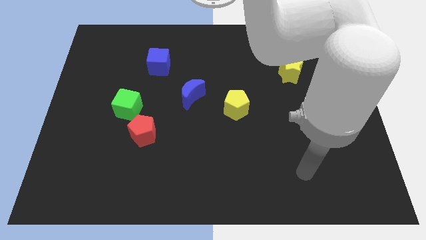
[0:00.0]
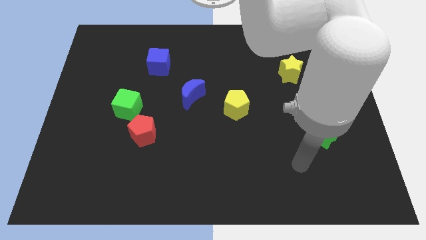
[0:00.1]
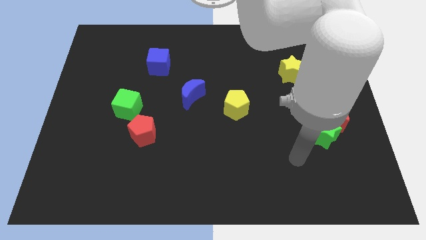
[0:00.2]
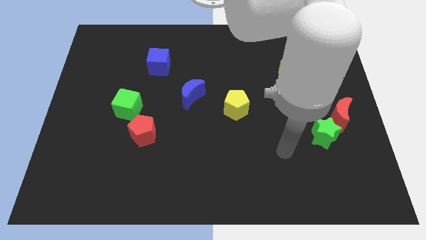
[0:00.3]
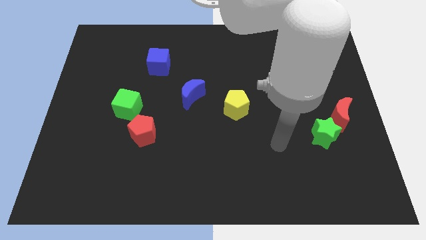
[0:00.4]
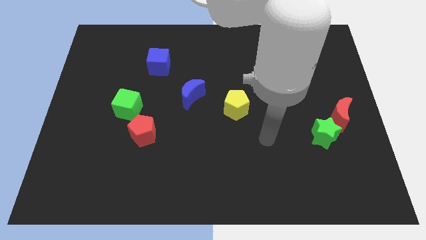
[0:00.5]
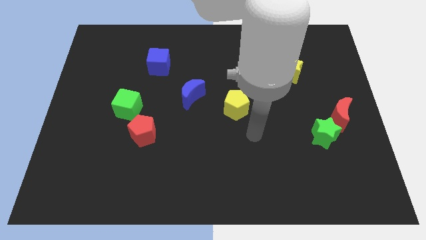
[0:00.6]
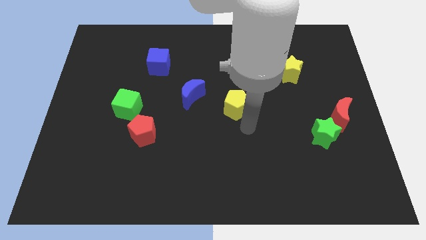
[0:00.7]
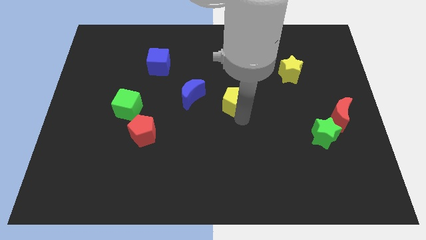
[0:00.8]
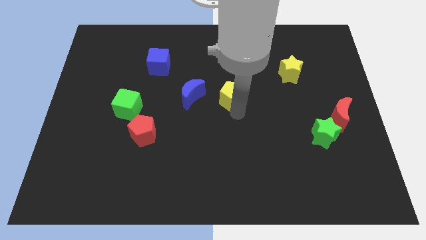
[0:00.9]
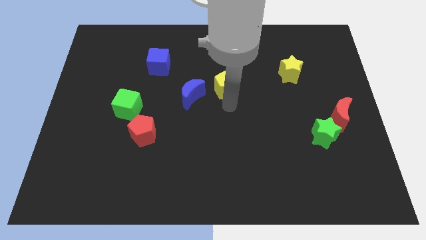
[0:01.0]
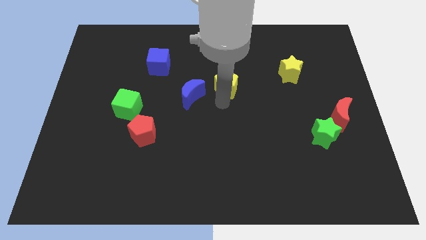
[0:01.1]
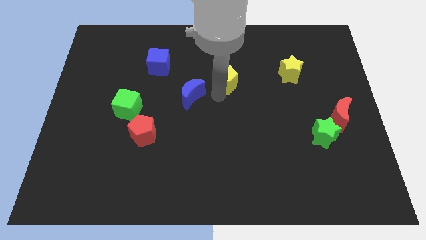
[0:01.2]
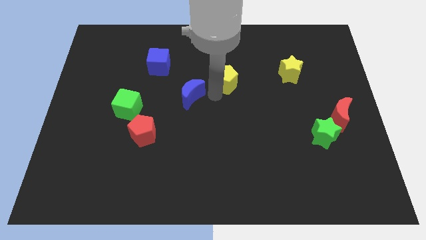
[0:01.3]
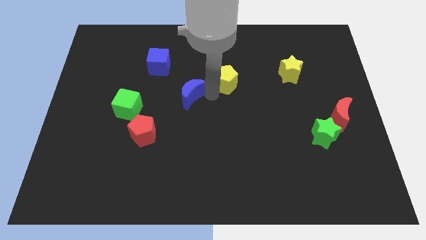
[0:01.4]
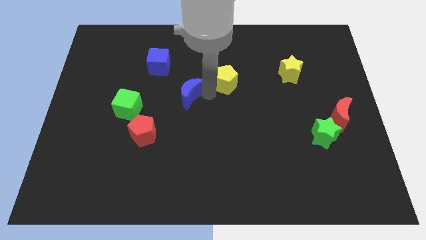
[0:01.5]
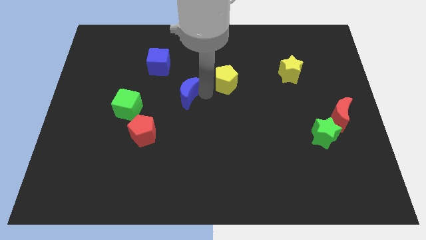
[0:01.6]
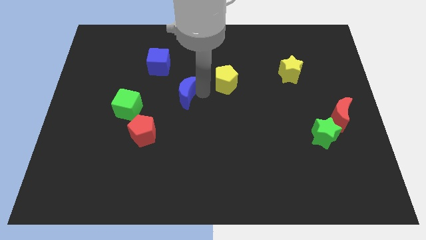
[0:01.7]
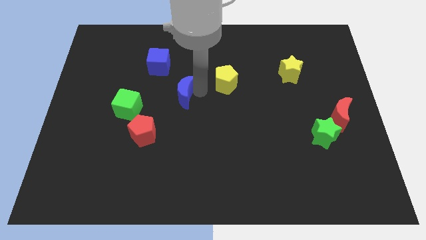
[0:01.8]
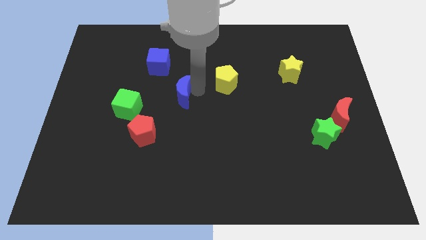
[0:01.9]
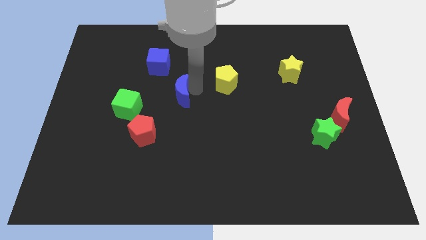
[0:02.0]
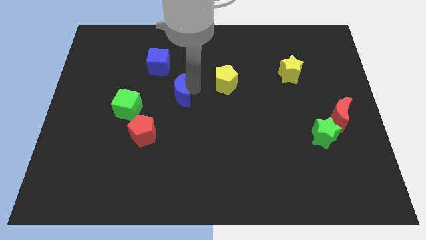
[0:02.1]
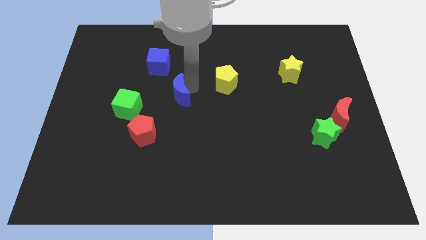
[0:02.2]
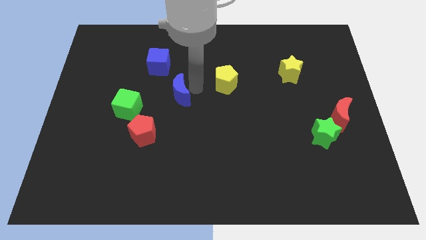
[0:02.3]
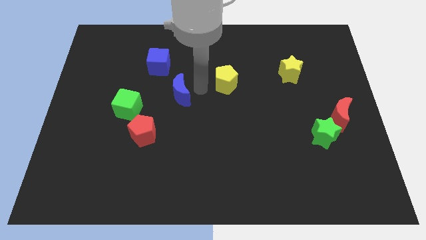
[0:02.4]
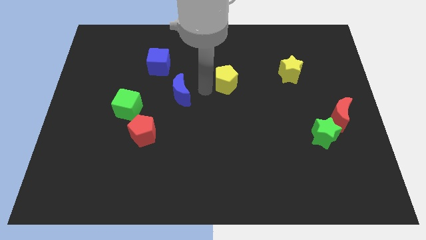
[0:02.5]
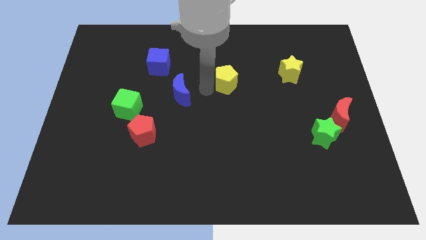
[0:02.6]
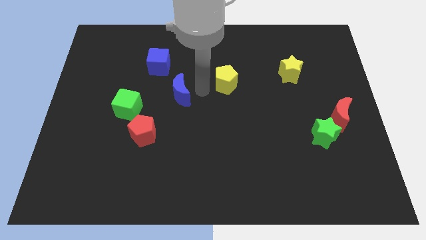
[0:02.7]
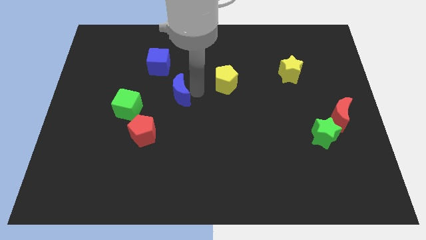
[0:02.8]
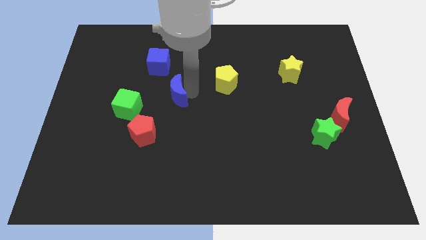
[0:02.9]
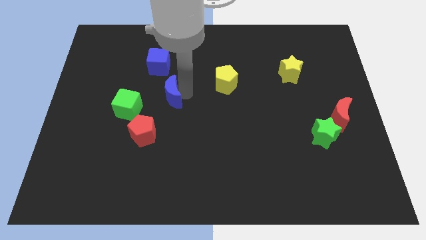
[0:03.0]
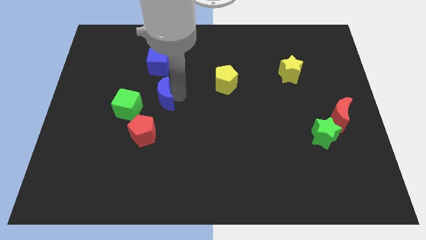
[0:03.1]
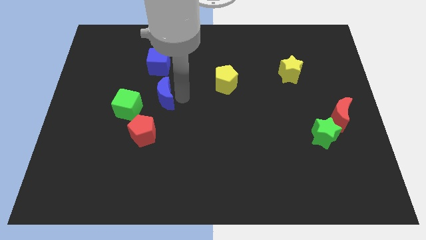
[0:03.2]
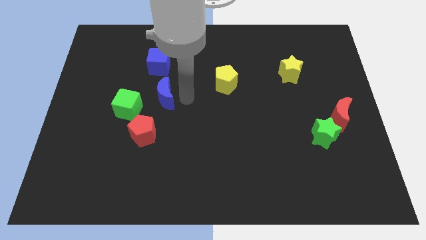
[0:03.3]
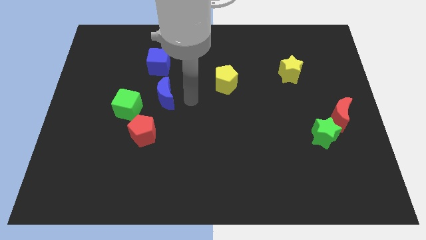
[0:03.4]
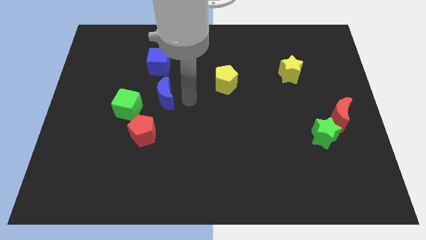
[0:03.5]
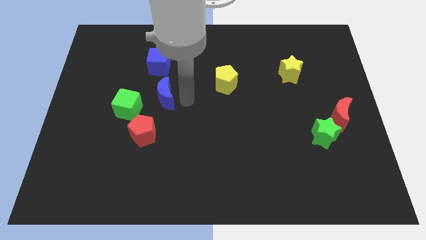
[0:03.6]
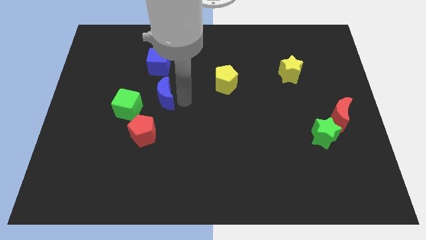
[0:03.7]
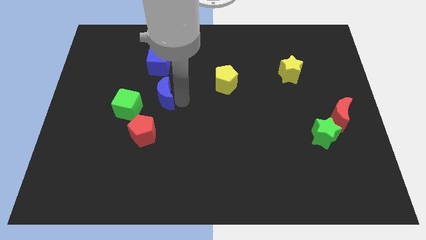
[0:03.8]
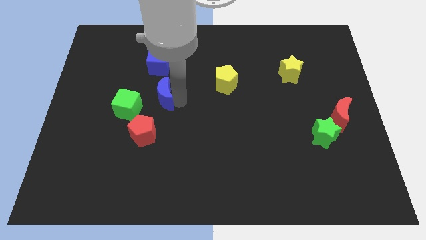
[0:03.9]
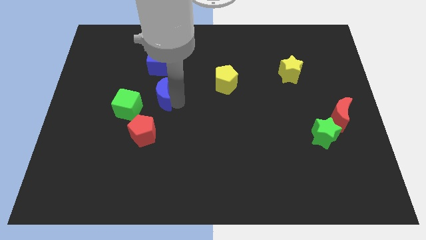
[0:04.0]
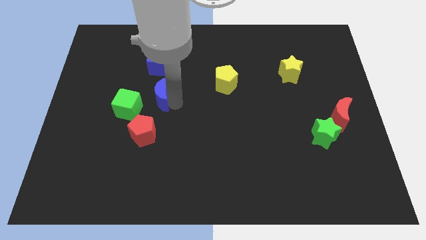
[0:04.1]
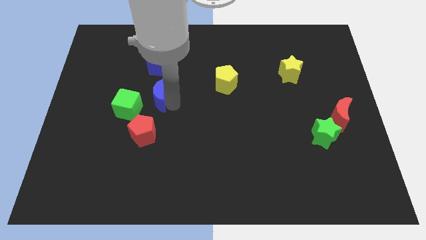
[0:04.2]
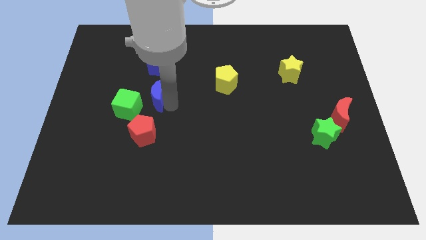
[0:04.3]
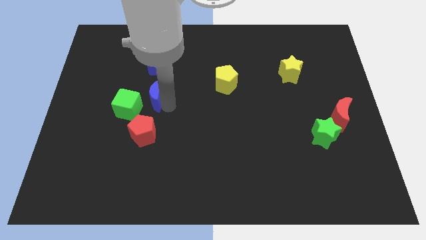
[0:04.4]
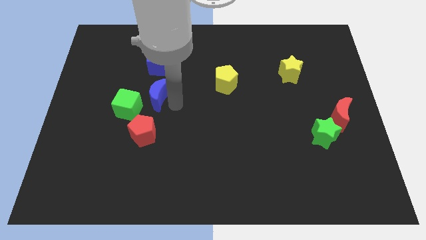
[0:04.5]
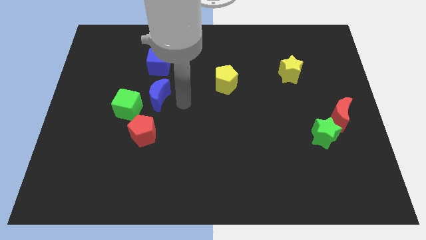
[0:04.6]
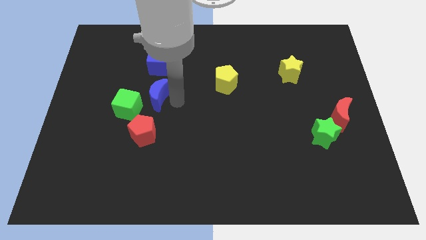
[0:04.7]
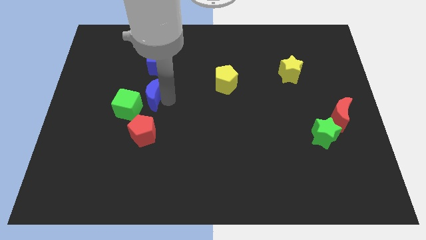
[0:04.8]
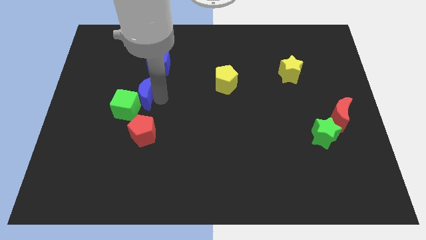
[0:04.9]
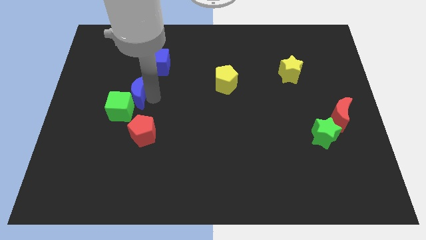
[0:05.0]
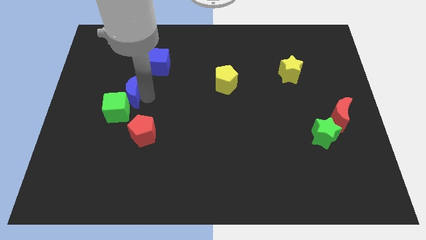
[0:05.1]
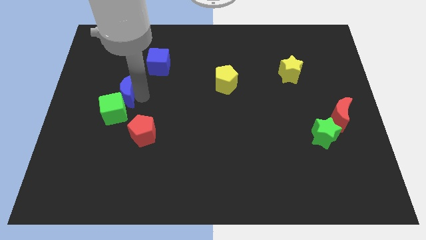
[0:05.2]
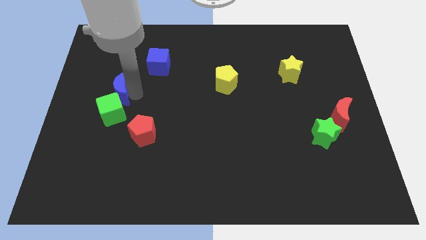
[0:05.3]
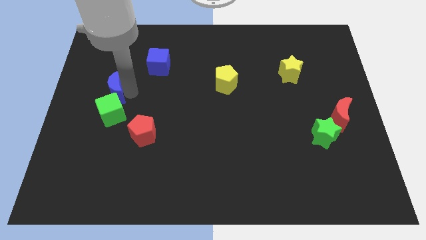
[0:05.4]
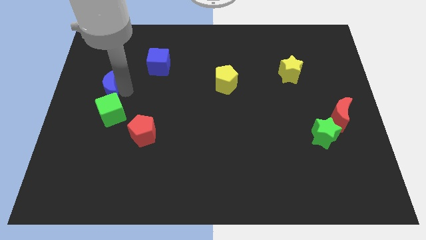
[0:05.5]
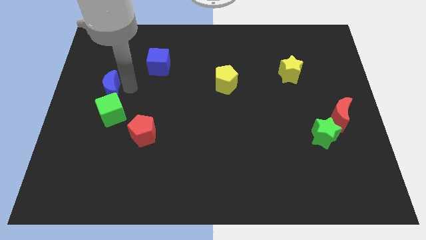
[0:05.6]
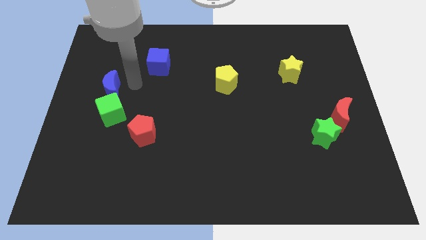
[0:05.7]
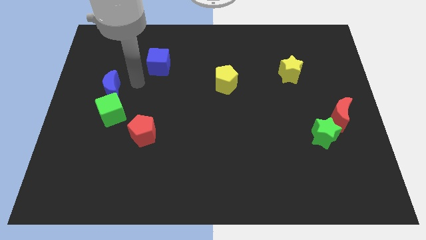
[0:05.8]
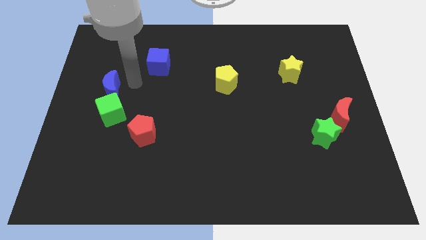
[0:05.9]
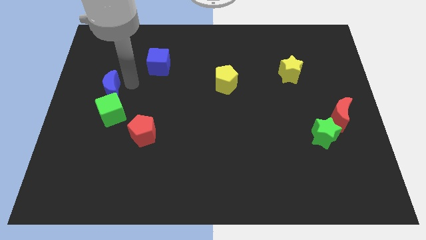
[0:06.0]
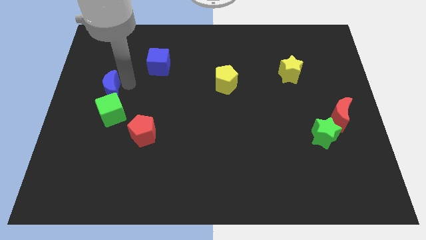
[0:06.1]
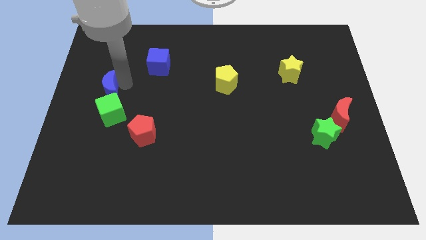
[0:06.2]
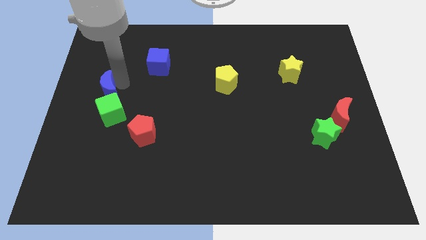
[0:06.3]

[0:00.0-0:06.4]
put the blue moon to the left side of the board

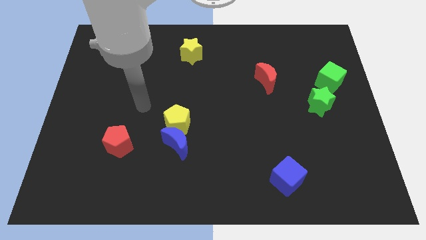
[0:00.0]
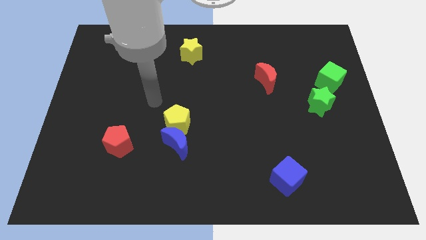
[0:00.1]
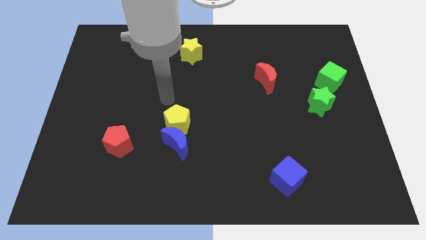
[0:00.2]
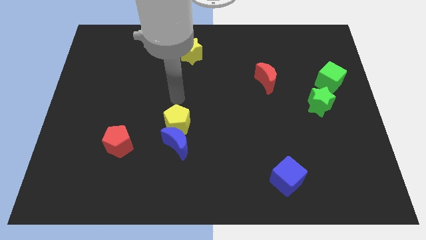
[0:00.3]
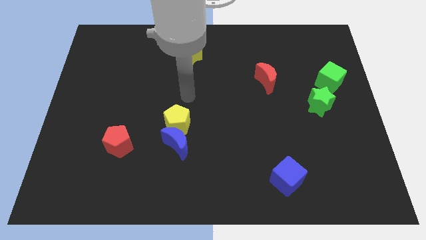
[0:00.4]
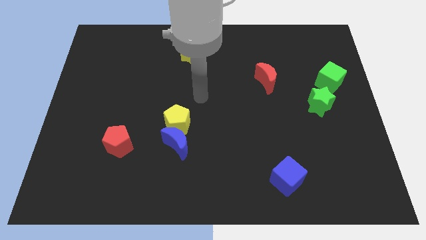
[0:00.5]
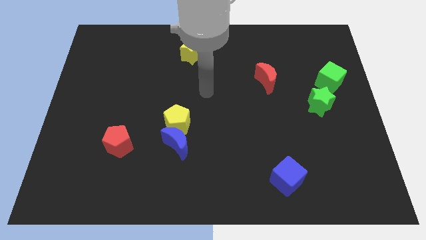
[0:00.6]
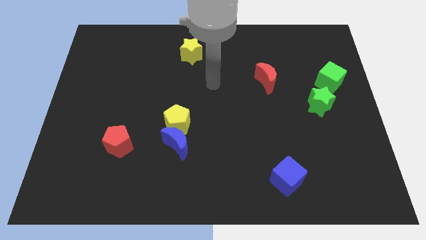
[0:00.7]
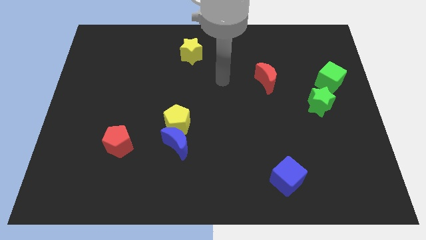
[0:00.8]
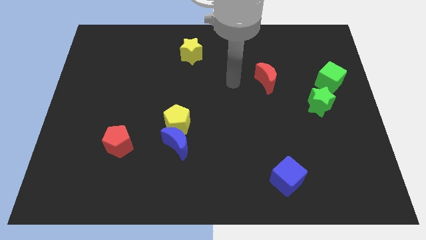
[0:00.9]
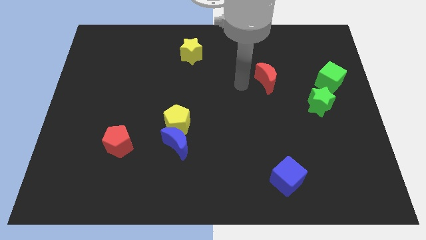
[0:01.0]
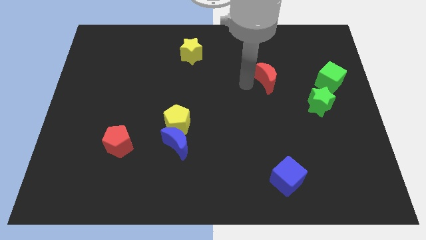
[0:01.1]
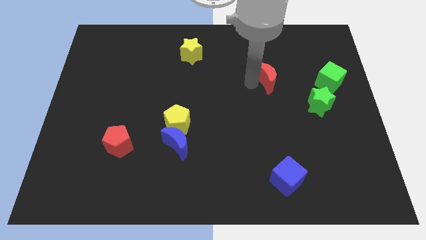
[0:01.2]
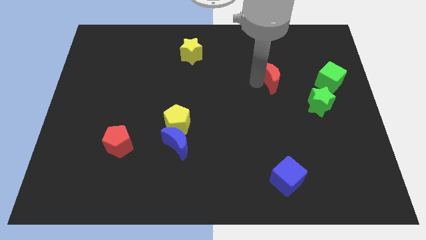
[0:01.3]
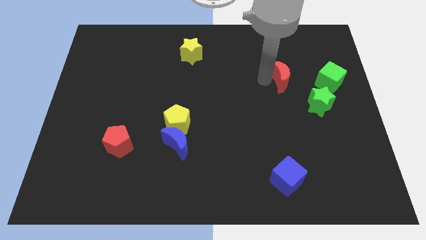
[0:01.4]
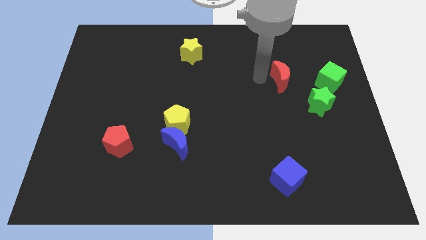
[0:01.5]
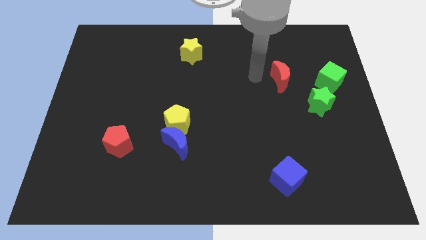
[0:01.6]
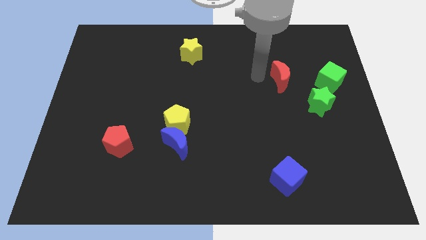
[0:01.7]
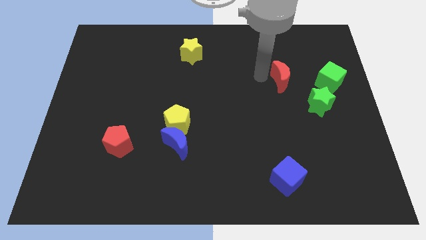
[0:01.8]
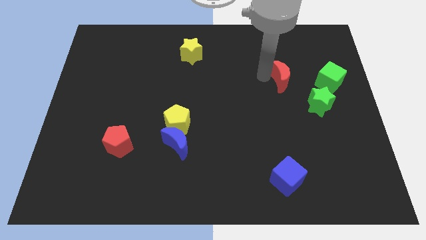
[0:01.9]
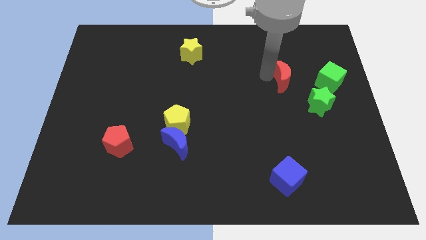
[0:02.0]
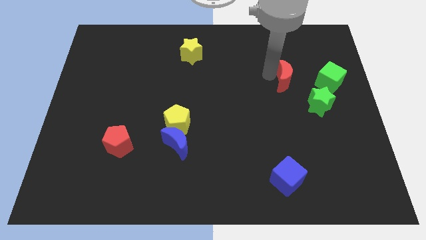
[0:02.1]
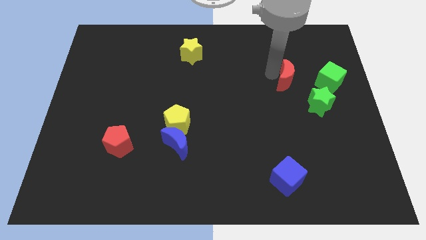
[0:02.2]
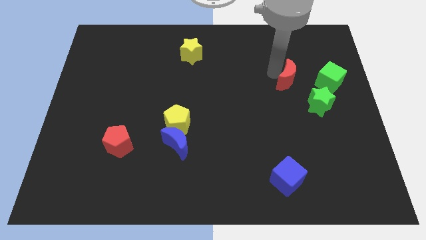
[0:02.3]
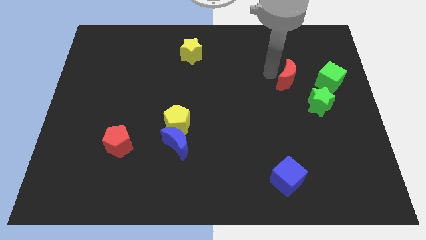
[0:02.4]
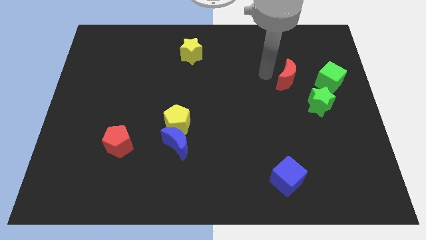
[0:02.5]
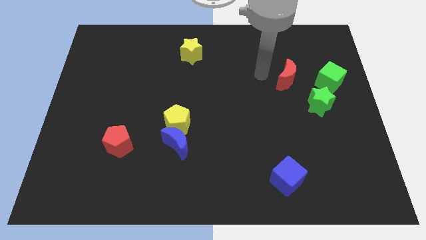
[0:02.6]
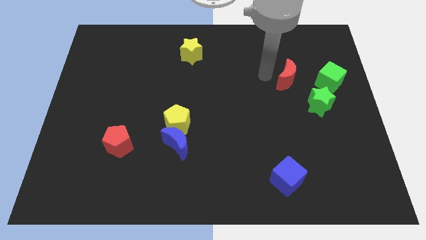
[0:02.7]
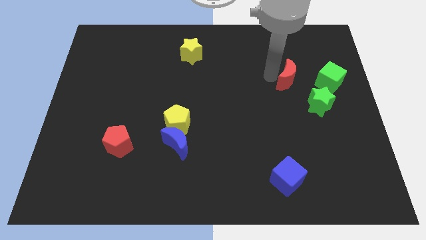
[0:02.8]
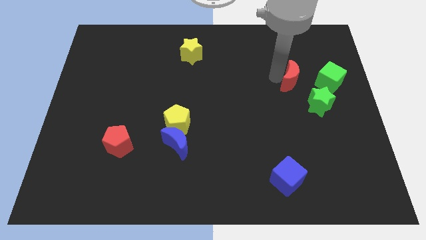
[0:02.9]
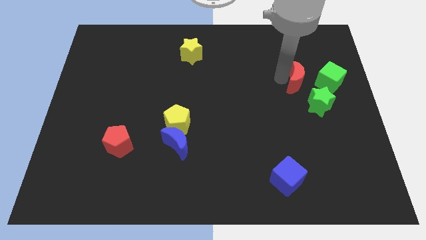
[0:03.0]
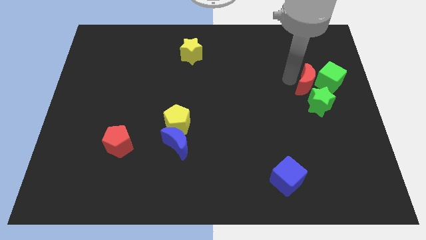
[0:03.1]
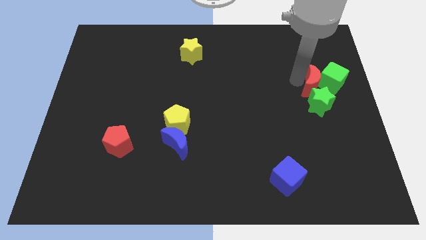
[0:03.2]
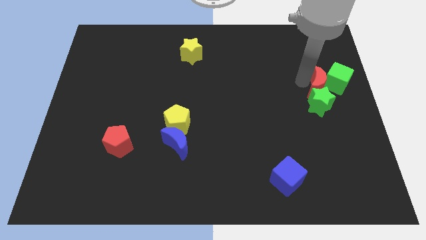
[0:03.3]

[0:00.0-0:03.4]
put the red moon to the center right
